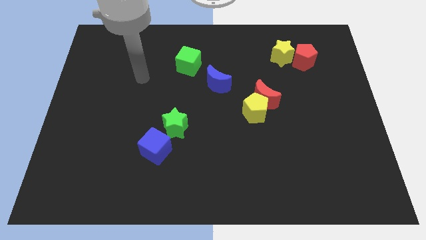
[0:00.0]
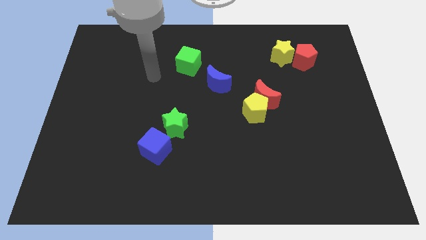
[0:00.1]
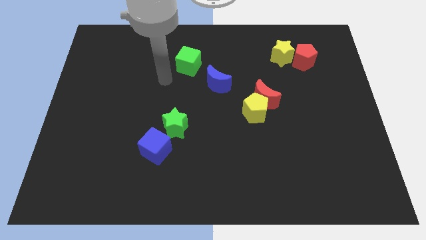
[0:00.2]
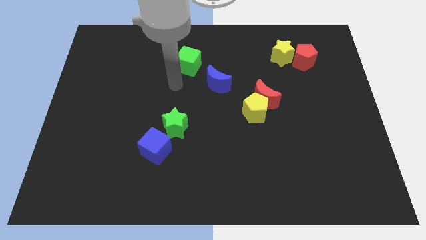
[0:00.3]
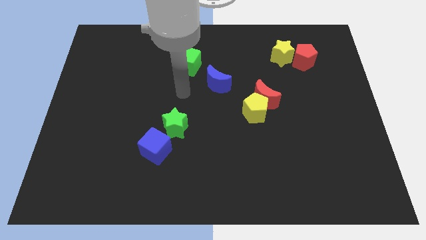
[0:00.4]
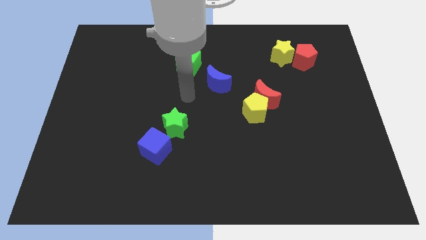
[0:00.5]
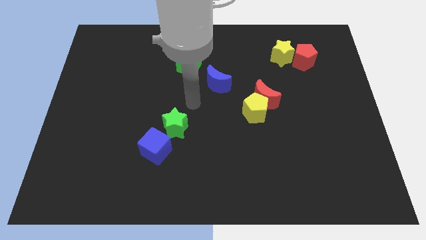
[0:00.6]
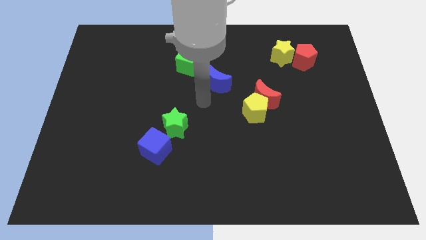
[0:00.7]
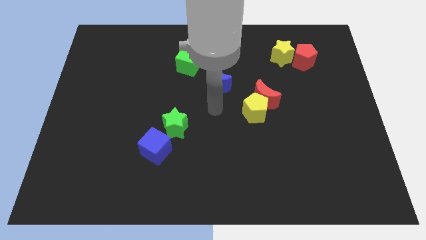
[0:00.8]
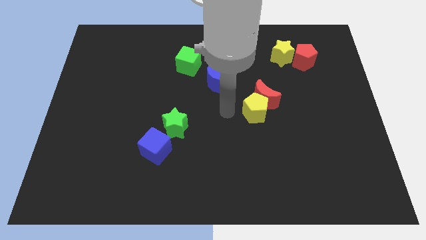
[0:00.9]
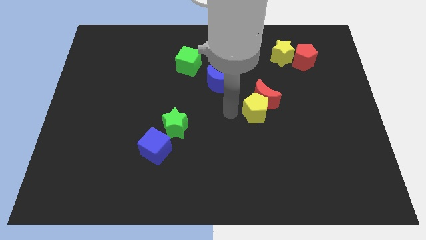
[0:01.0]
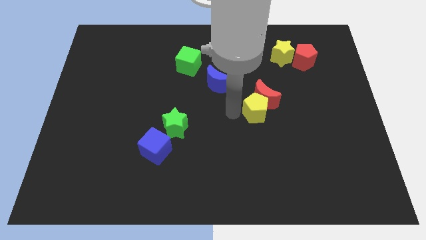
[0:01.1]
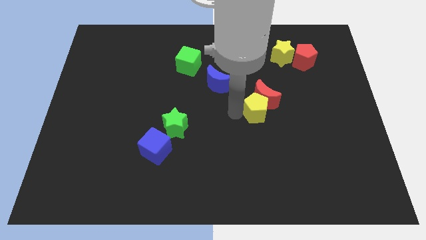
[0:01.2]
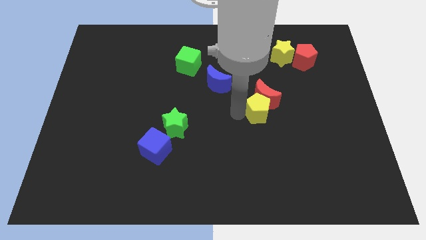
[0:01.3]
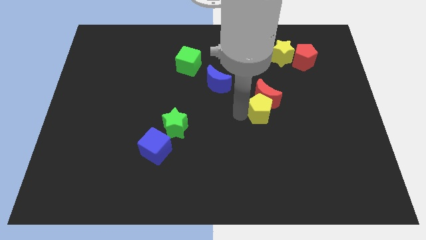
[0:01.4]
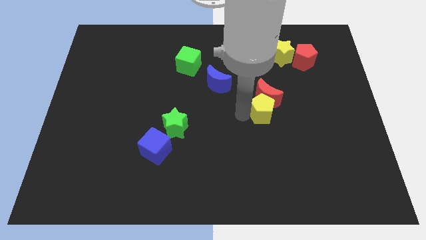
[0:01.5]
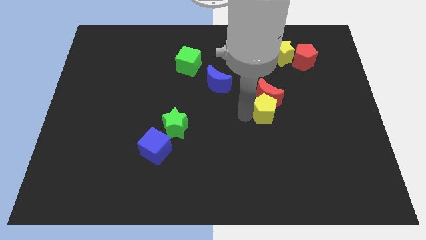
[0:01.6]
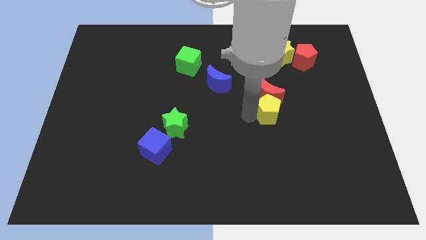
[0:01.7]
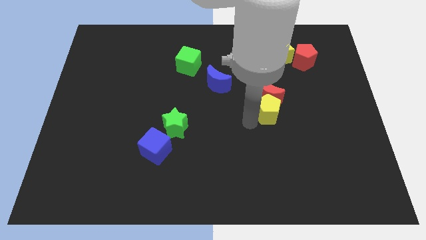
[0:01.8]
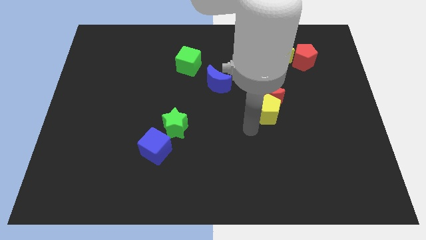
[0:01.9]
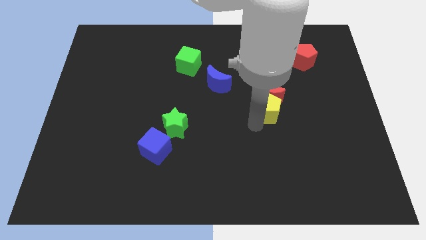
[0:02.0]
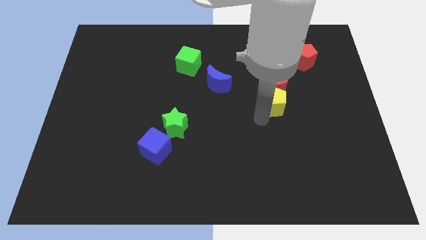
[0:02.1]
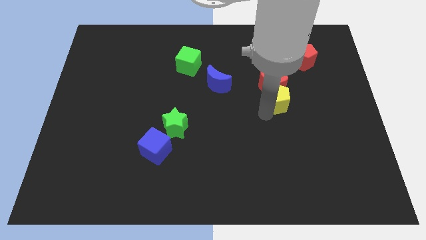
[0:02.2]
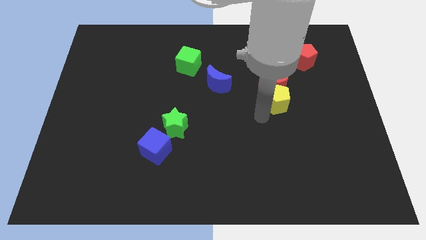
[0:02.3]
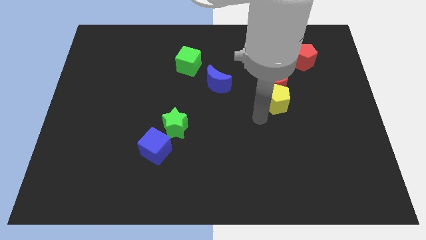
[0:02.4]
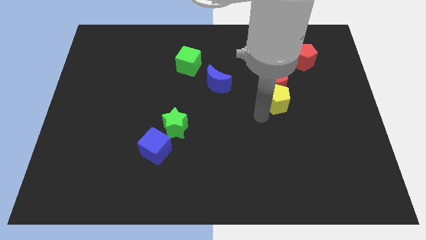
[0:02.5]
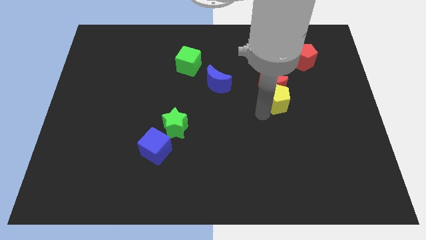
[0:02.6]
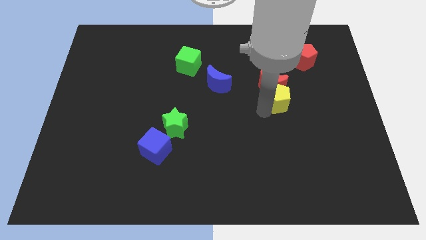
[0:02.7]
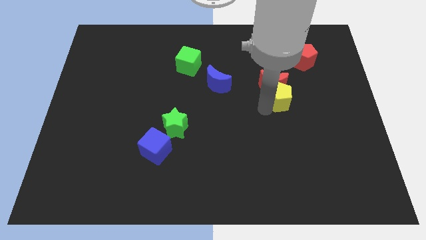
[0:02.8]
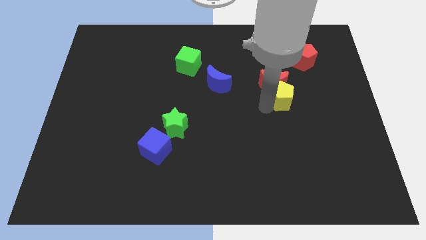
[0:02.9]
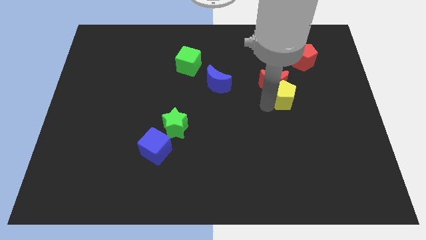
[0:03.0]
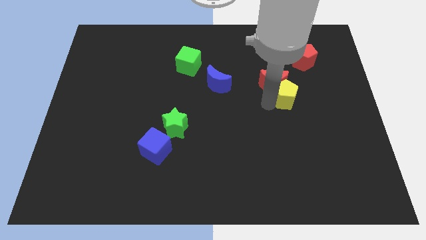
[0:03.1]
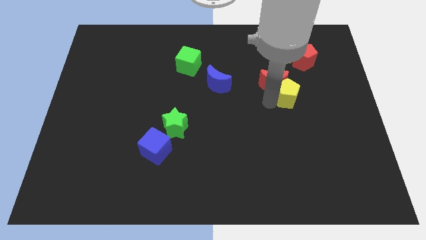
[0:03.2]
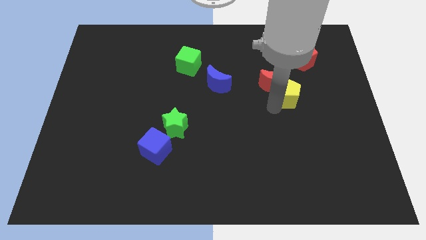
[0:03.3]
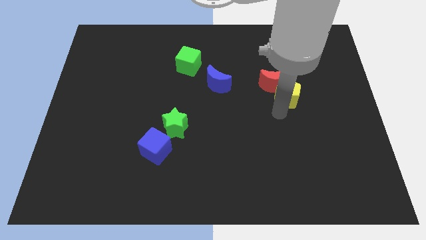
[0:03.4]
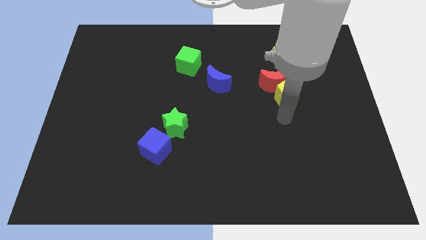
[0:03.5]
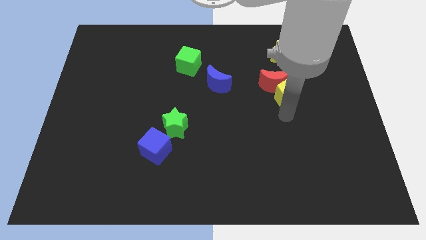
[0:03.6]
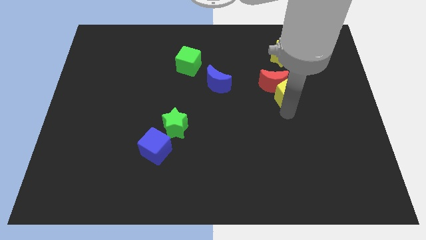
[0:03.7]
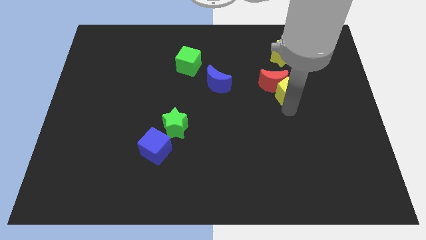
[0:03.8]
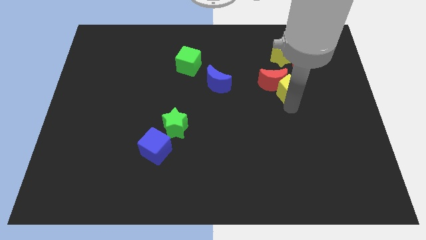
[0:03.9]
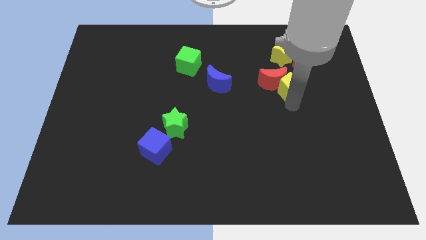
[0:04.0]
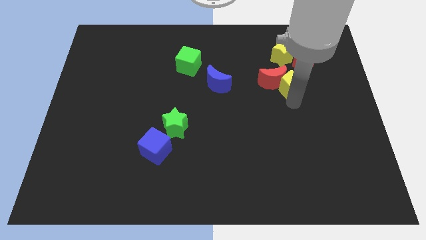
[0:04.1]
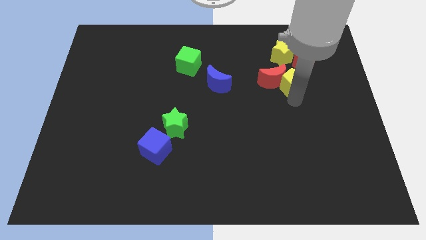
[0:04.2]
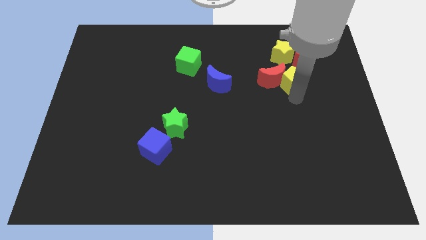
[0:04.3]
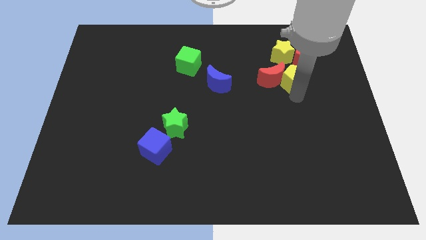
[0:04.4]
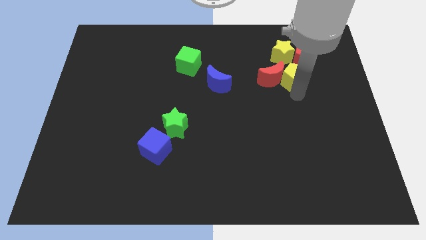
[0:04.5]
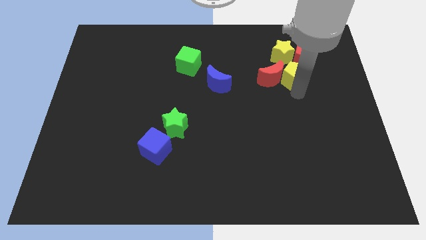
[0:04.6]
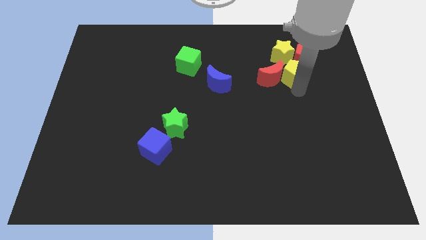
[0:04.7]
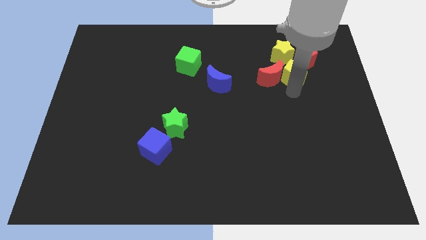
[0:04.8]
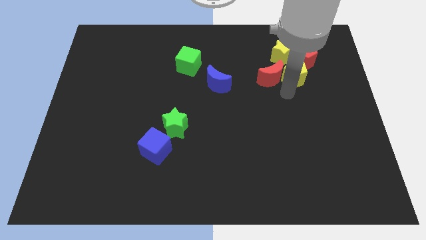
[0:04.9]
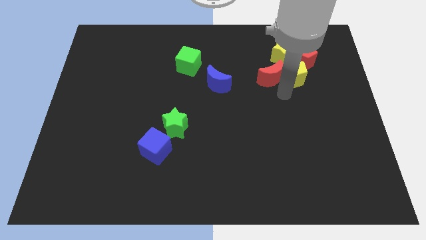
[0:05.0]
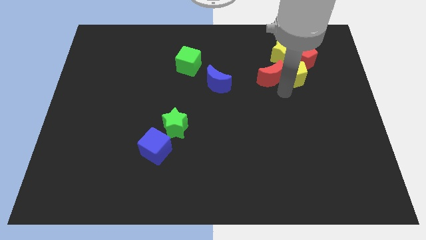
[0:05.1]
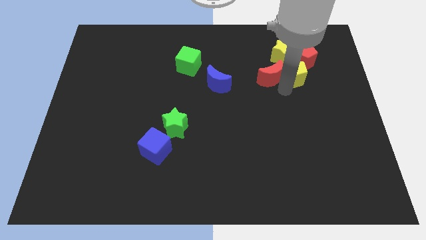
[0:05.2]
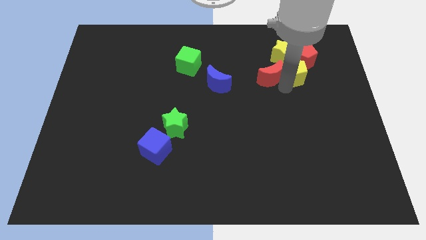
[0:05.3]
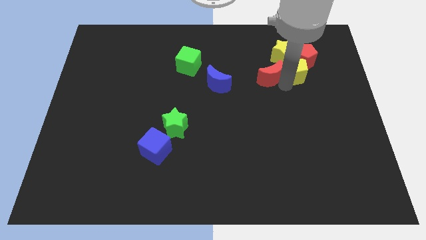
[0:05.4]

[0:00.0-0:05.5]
slide the yellow pentagon close to the red pentagon

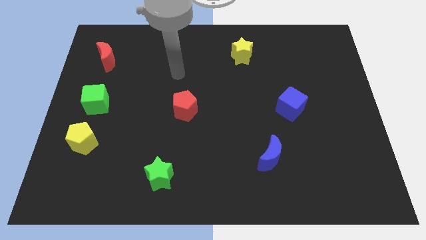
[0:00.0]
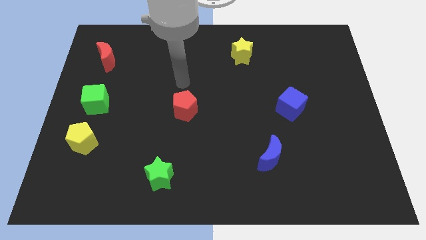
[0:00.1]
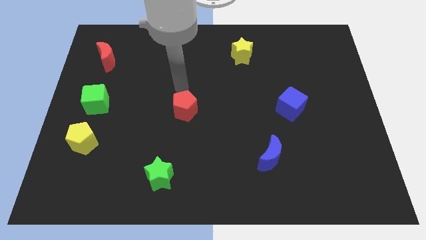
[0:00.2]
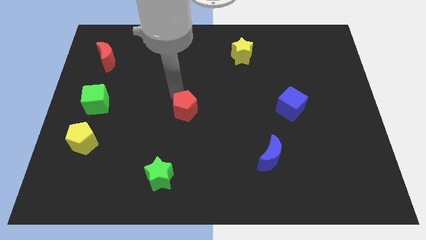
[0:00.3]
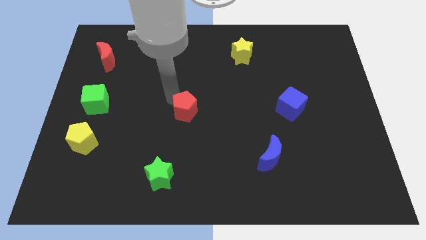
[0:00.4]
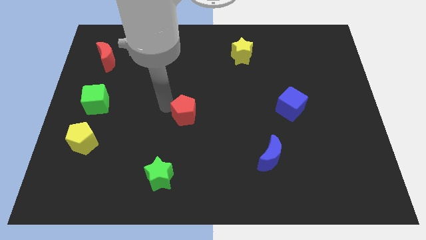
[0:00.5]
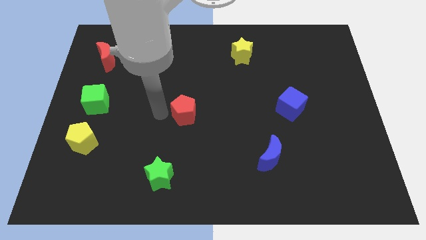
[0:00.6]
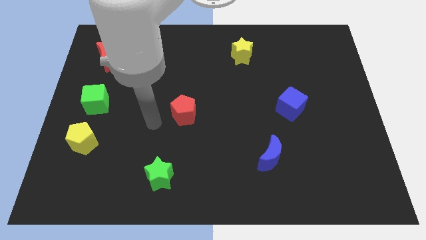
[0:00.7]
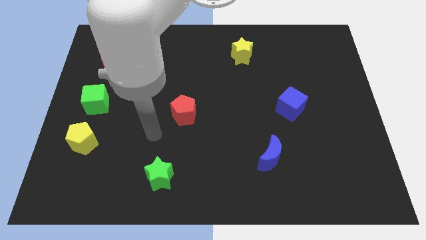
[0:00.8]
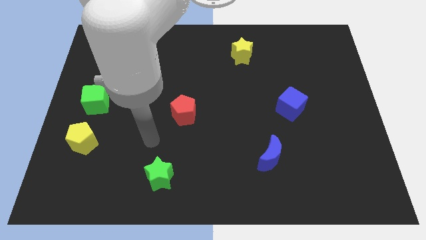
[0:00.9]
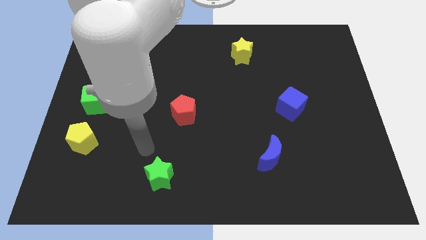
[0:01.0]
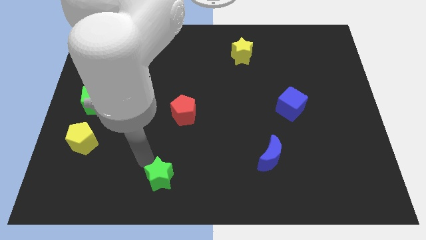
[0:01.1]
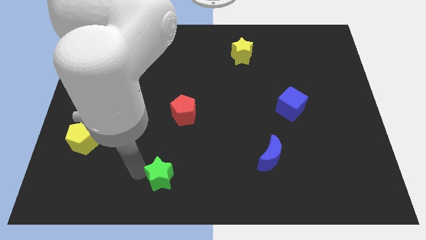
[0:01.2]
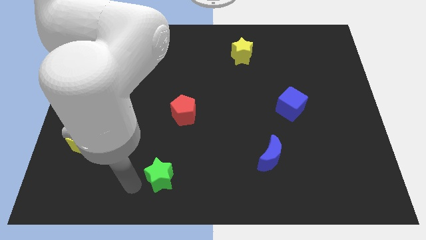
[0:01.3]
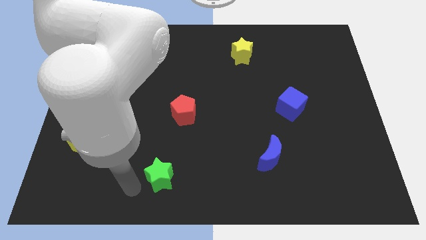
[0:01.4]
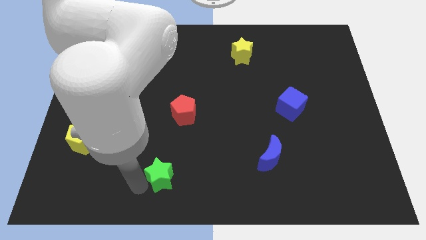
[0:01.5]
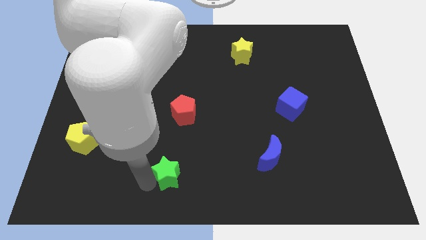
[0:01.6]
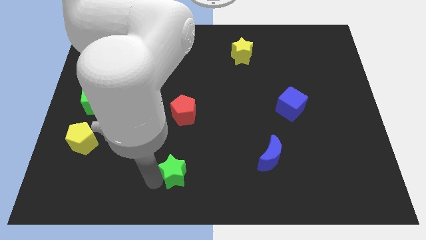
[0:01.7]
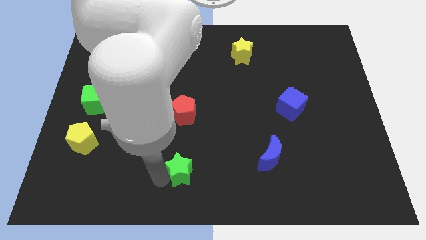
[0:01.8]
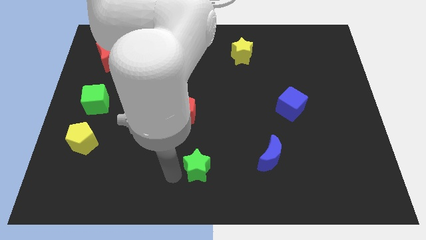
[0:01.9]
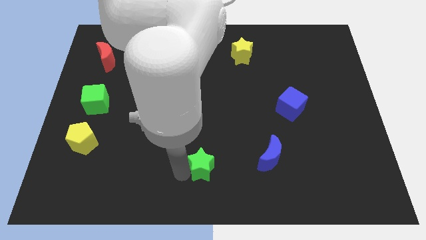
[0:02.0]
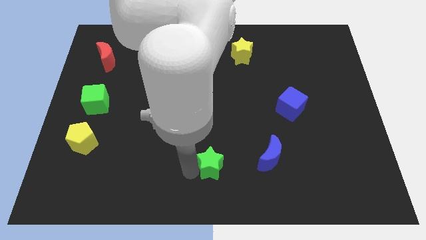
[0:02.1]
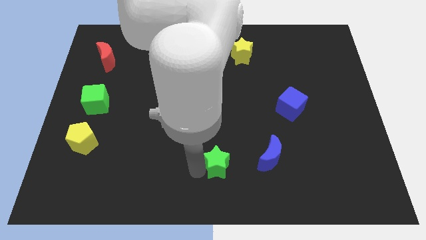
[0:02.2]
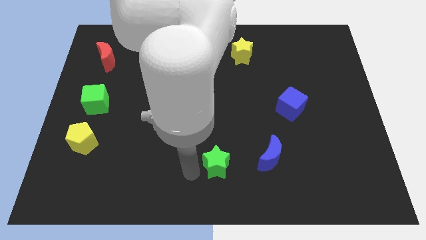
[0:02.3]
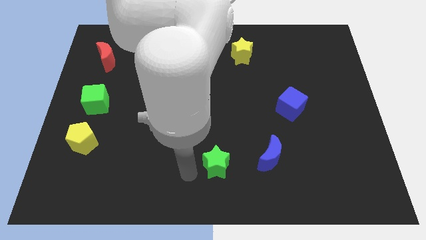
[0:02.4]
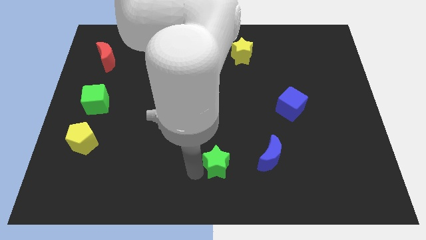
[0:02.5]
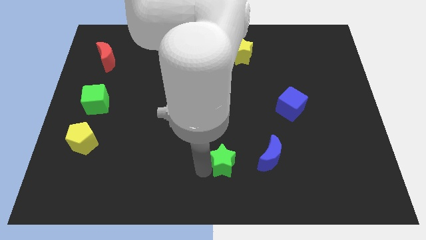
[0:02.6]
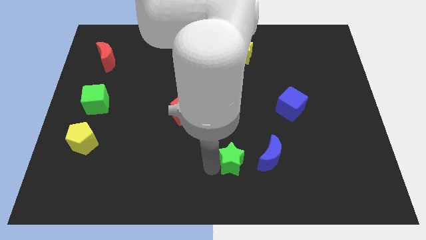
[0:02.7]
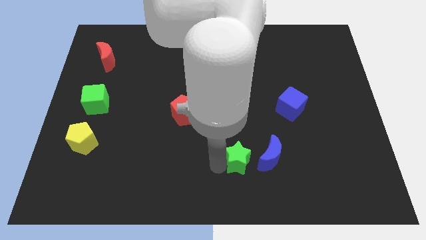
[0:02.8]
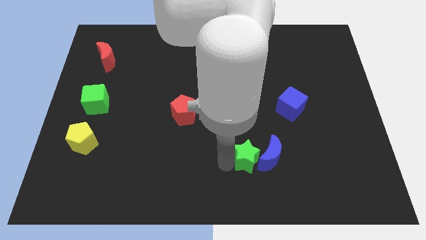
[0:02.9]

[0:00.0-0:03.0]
slide the green star towards the blue moon
